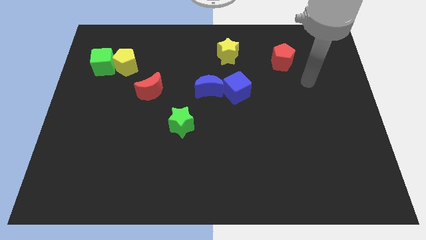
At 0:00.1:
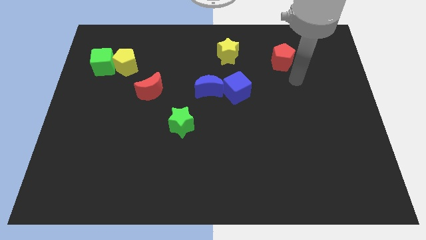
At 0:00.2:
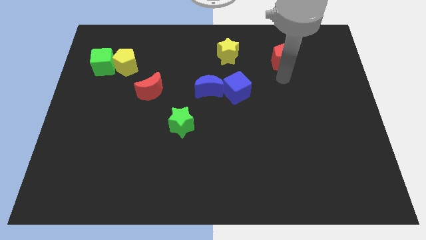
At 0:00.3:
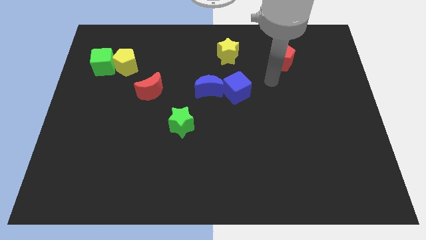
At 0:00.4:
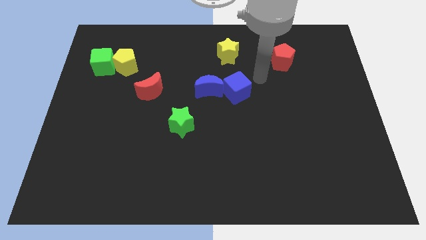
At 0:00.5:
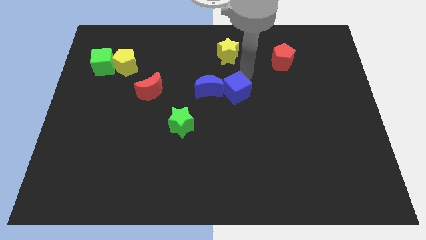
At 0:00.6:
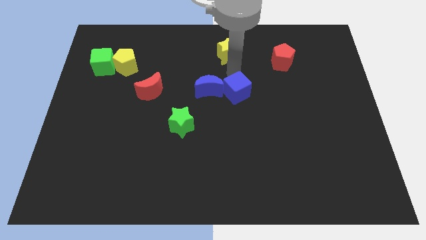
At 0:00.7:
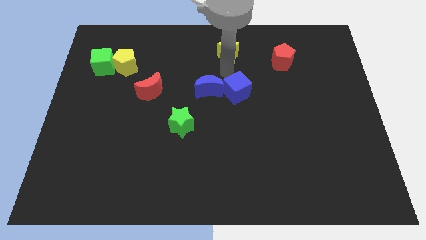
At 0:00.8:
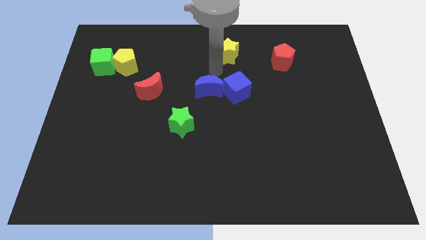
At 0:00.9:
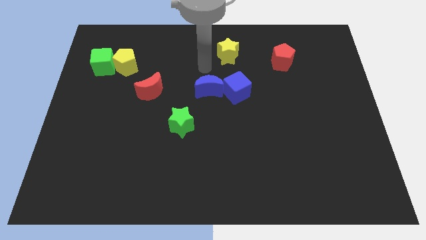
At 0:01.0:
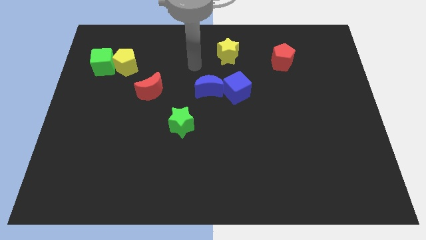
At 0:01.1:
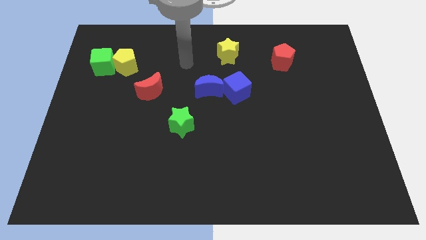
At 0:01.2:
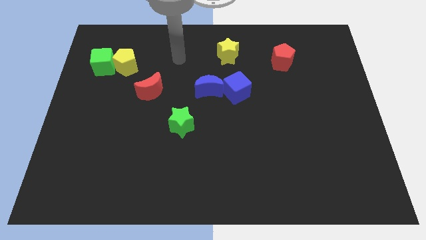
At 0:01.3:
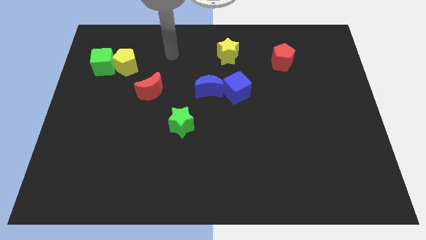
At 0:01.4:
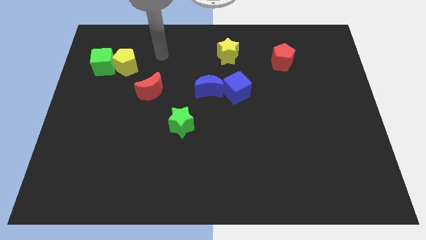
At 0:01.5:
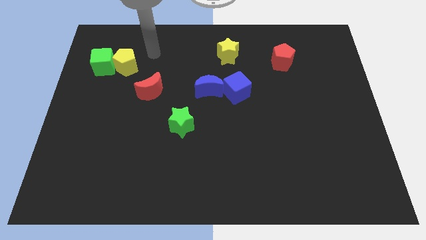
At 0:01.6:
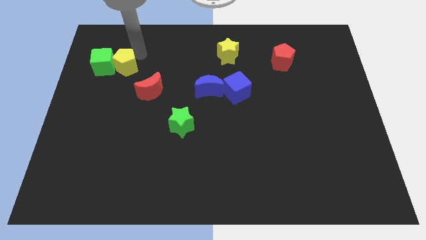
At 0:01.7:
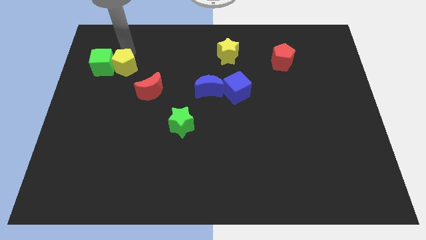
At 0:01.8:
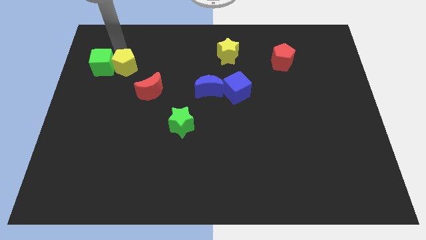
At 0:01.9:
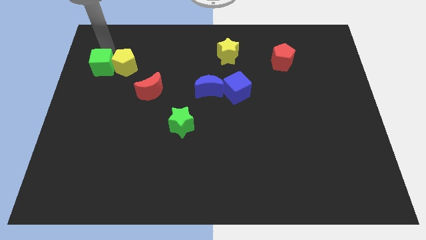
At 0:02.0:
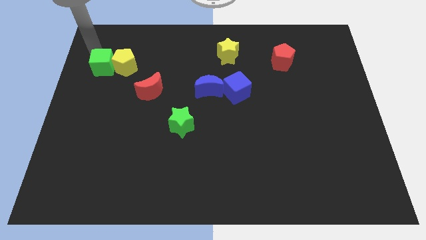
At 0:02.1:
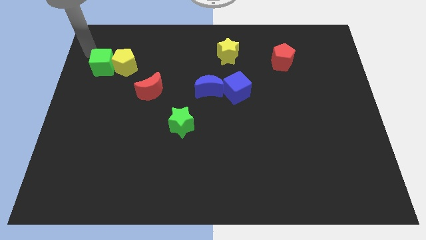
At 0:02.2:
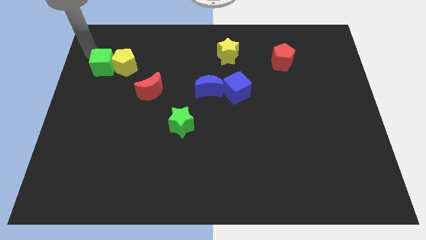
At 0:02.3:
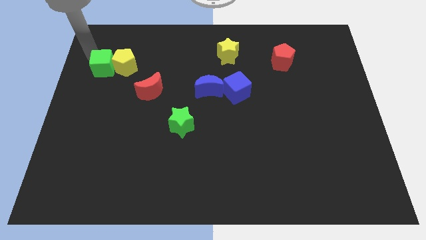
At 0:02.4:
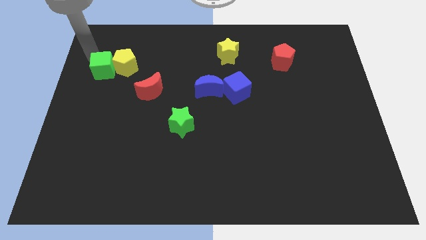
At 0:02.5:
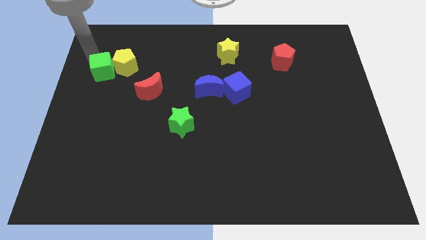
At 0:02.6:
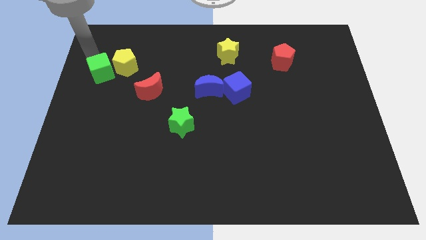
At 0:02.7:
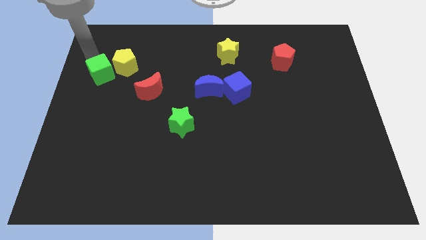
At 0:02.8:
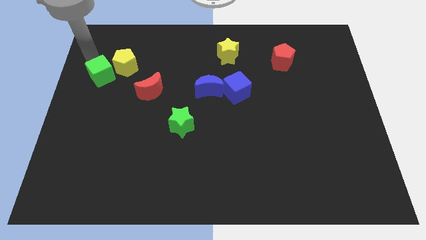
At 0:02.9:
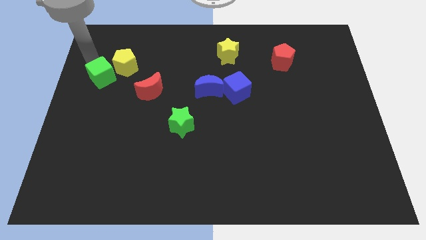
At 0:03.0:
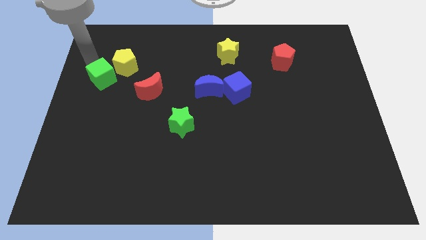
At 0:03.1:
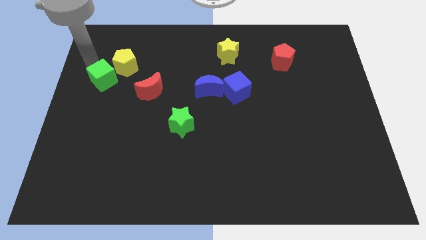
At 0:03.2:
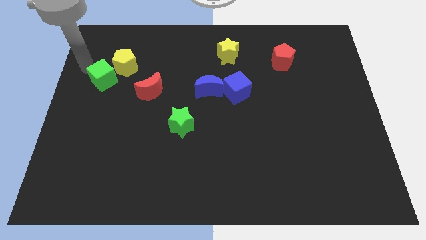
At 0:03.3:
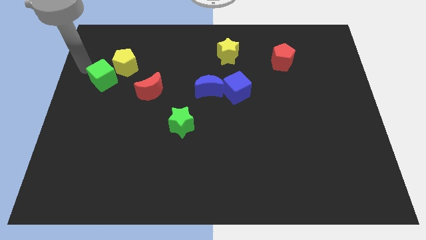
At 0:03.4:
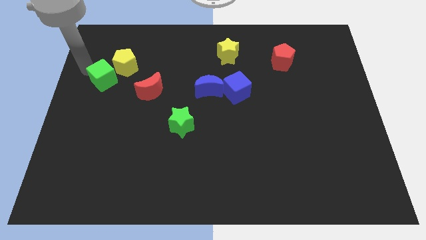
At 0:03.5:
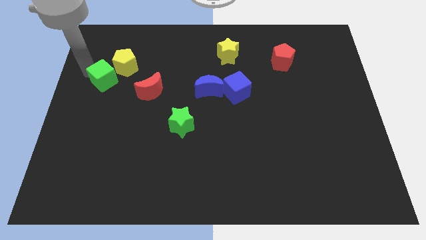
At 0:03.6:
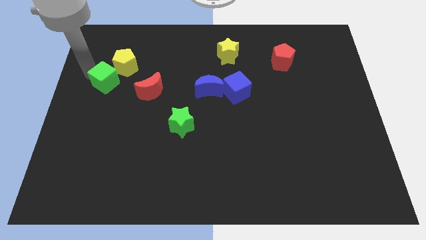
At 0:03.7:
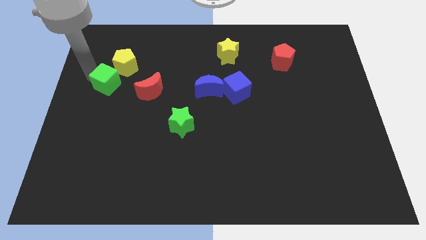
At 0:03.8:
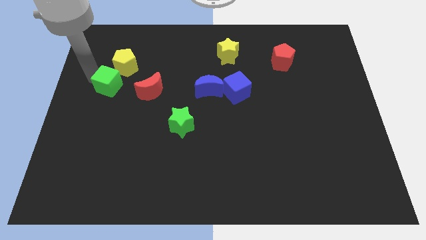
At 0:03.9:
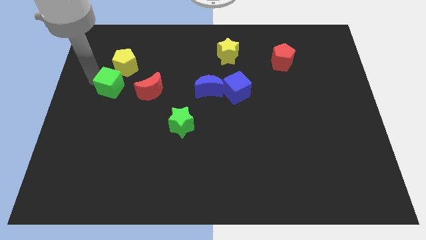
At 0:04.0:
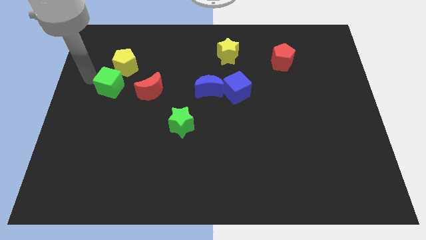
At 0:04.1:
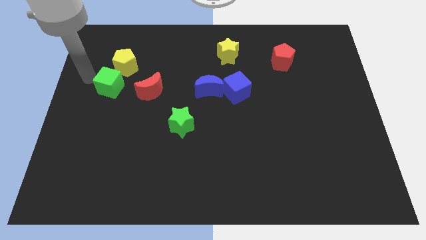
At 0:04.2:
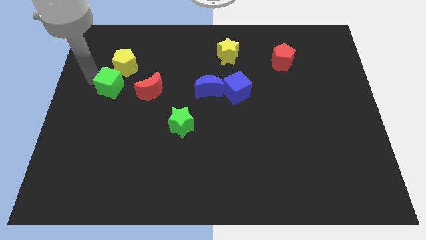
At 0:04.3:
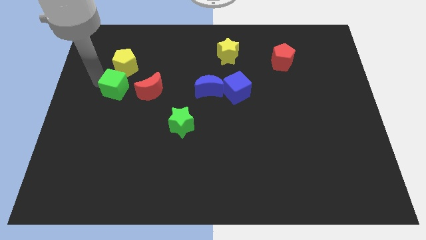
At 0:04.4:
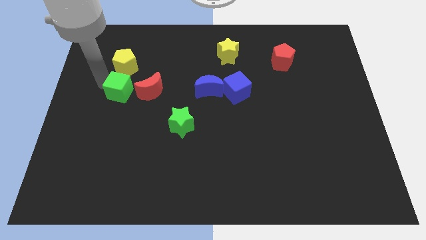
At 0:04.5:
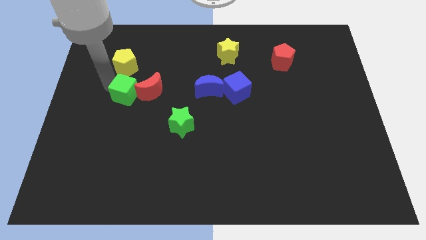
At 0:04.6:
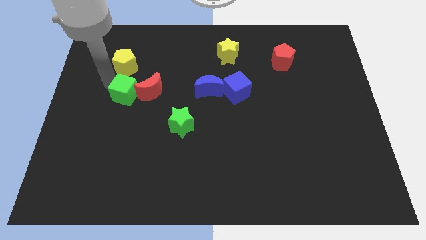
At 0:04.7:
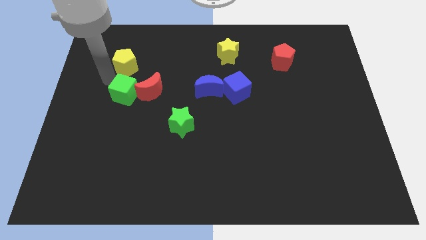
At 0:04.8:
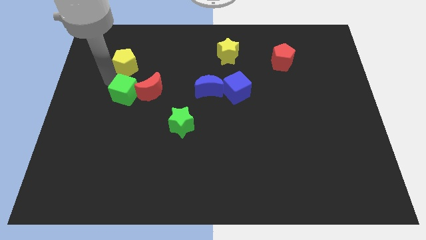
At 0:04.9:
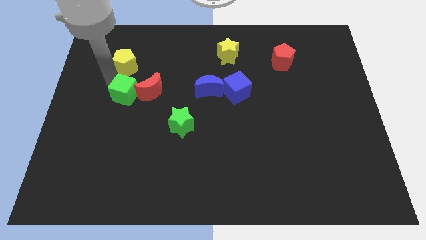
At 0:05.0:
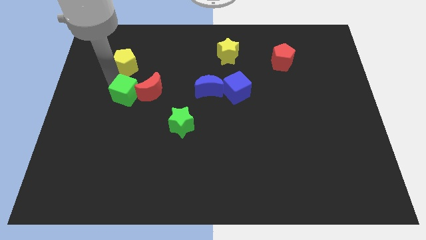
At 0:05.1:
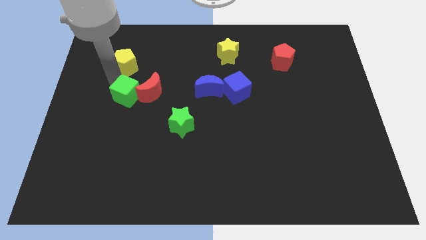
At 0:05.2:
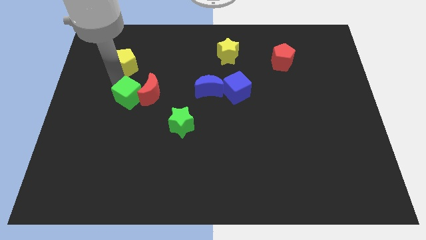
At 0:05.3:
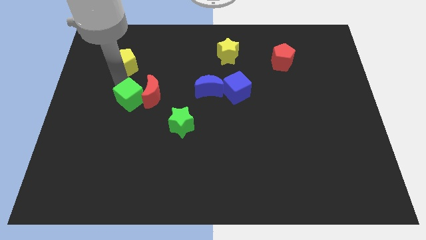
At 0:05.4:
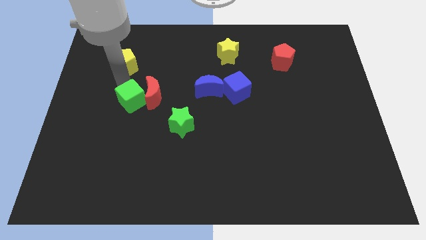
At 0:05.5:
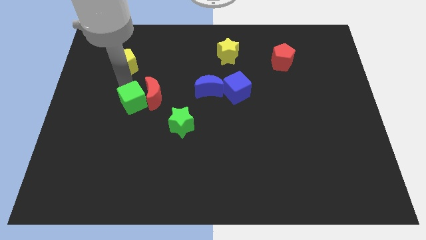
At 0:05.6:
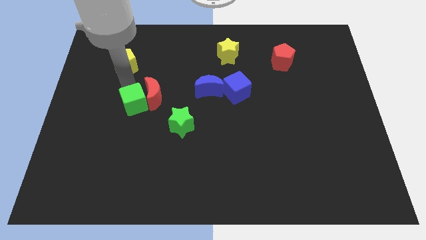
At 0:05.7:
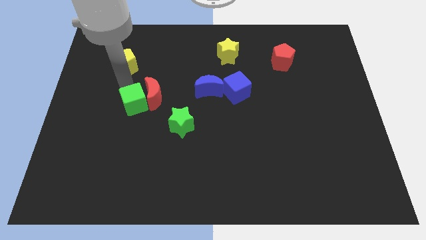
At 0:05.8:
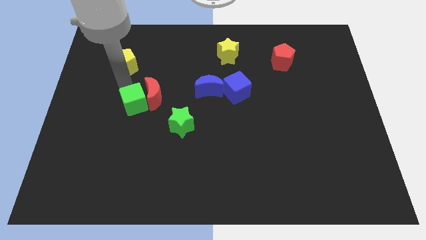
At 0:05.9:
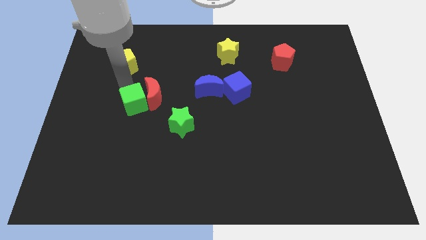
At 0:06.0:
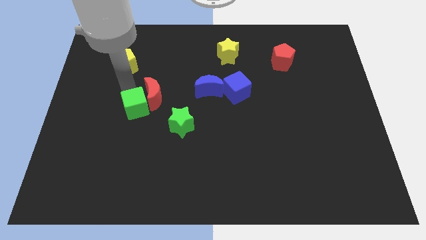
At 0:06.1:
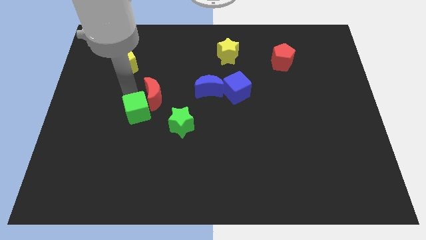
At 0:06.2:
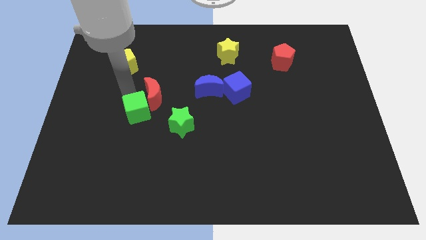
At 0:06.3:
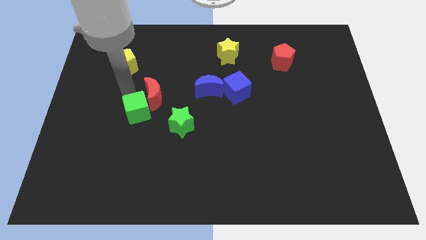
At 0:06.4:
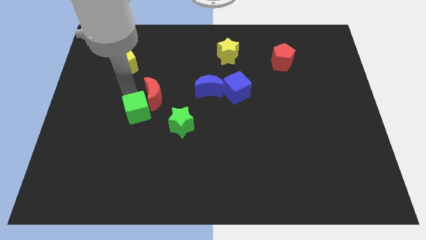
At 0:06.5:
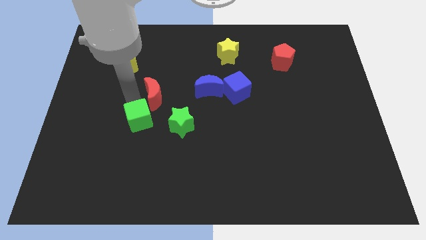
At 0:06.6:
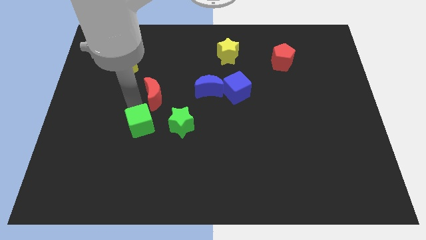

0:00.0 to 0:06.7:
move the green cube diagonally downwards and to the right

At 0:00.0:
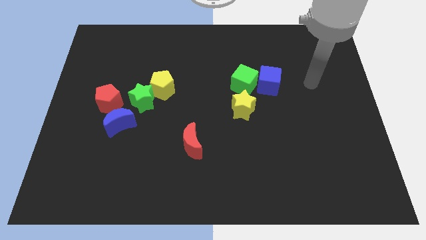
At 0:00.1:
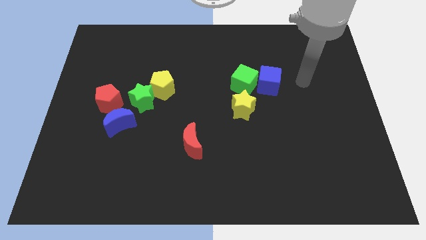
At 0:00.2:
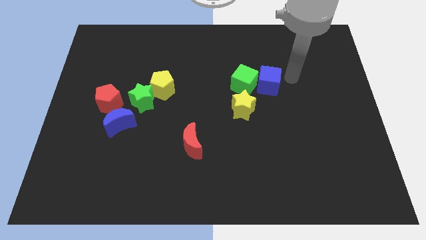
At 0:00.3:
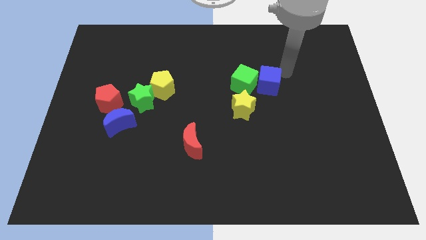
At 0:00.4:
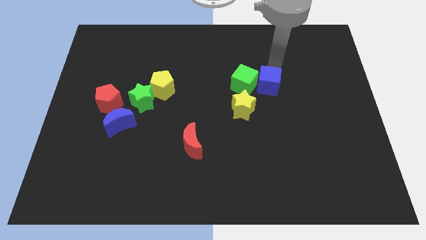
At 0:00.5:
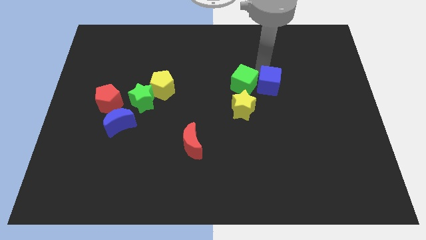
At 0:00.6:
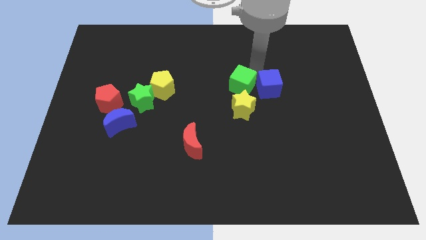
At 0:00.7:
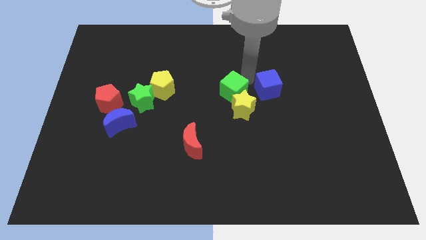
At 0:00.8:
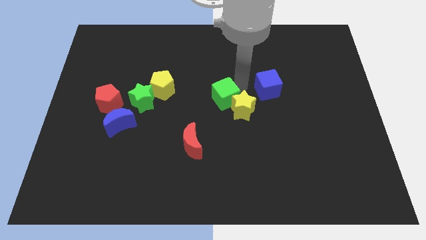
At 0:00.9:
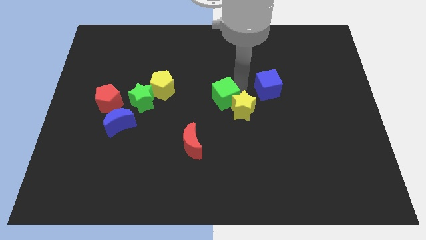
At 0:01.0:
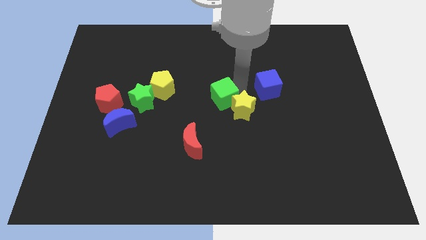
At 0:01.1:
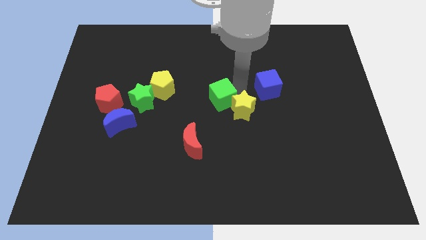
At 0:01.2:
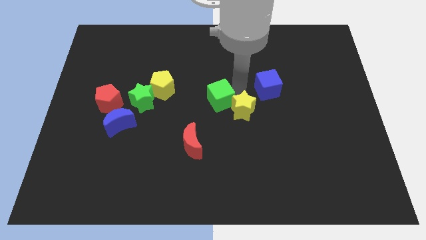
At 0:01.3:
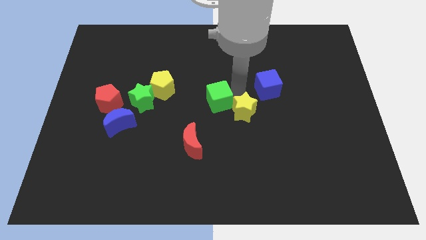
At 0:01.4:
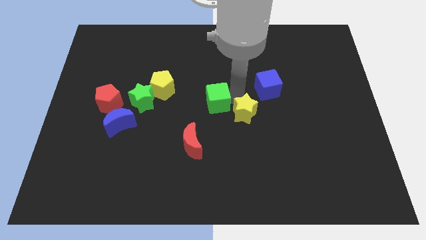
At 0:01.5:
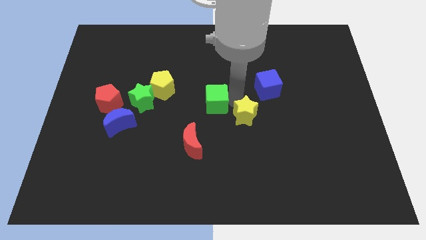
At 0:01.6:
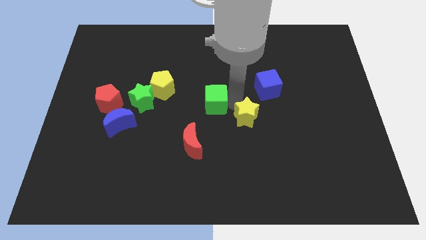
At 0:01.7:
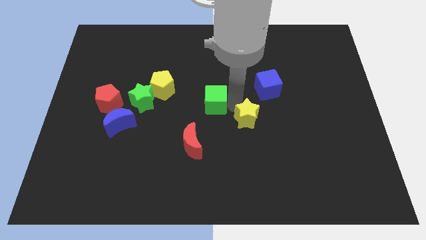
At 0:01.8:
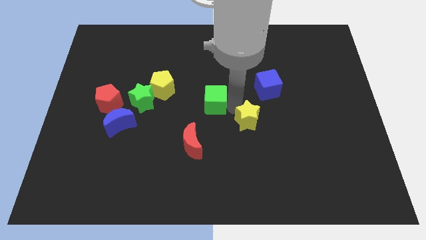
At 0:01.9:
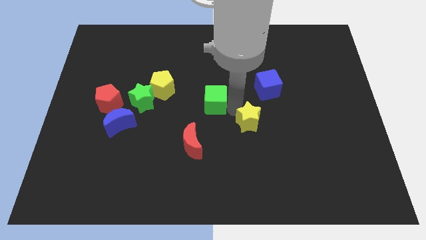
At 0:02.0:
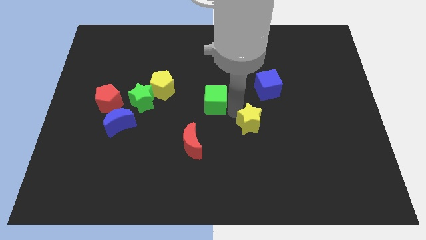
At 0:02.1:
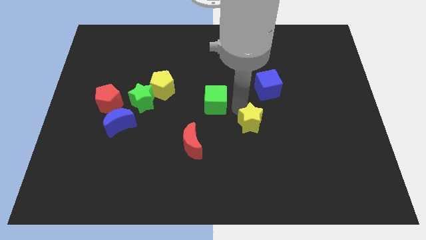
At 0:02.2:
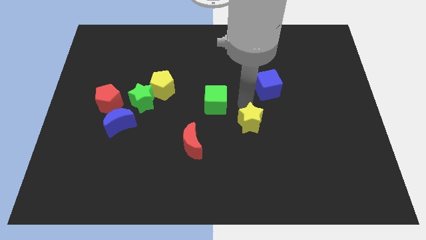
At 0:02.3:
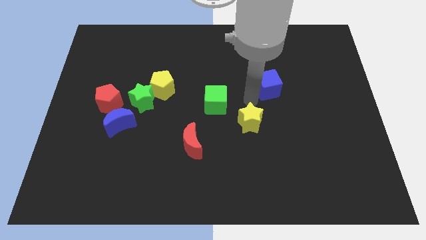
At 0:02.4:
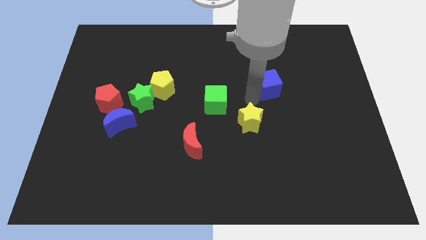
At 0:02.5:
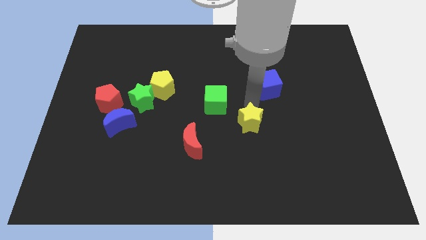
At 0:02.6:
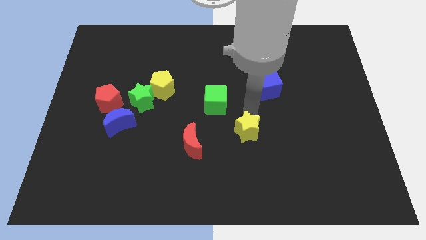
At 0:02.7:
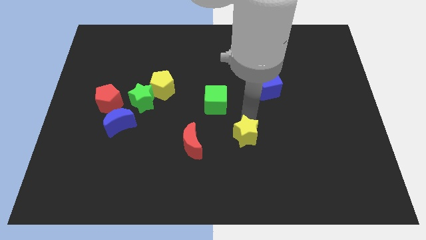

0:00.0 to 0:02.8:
push the yellow star down slightly
